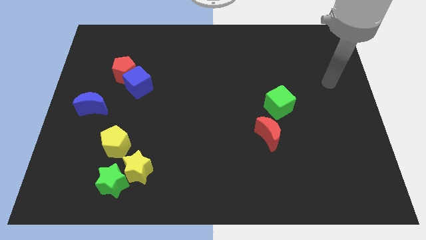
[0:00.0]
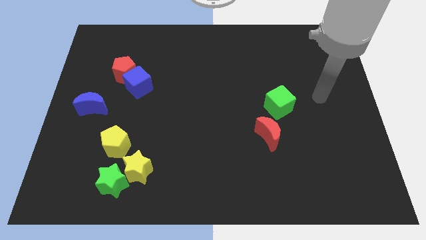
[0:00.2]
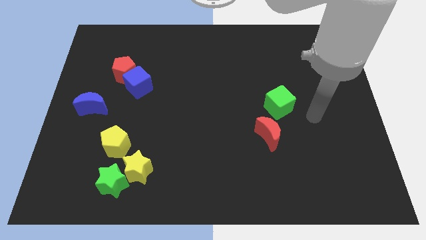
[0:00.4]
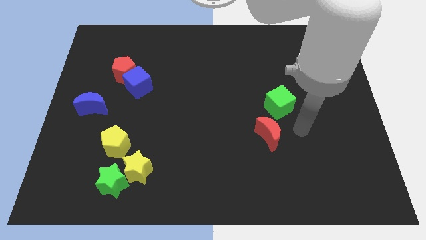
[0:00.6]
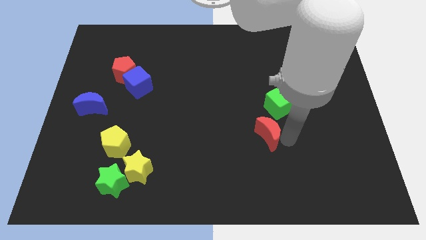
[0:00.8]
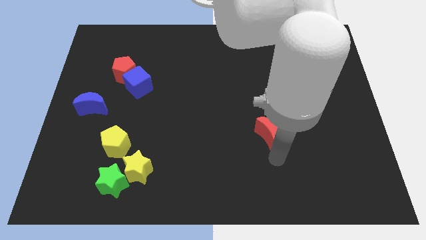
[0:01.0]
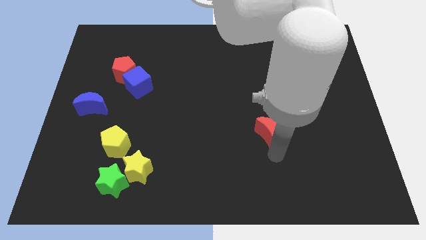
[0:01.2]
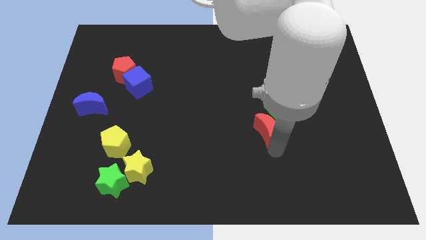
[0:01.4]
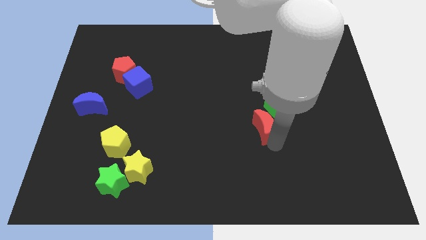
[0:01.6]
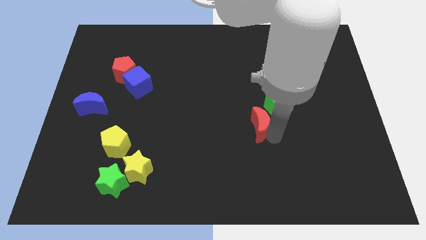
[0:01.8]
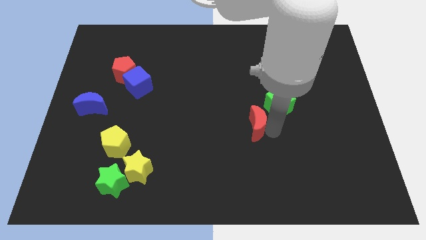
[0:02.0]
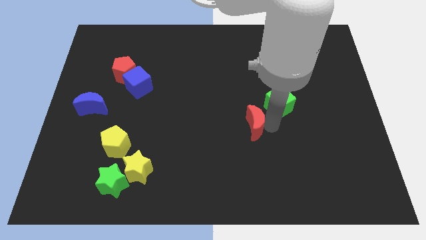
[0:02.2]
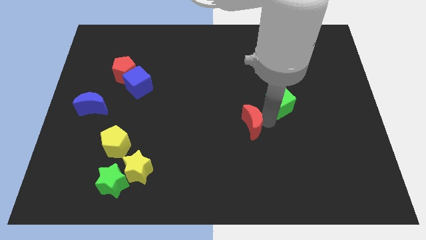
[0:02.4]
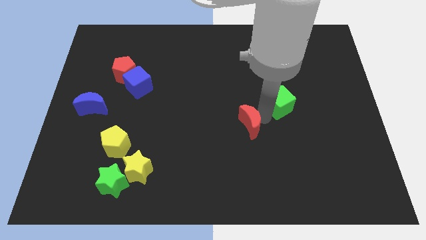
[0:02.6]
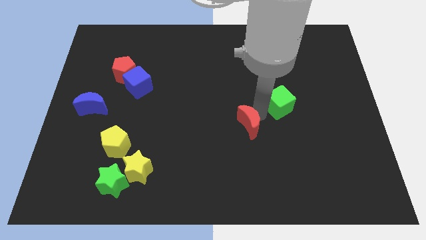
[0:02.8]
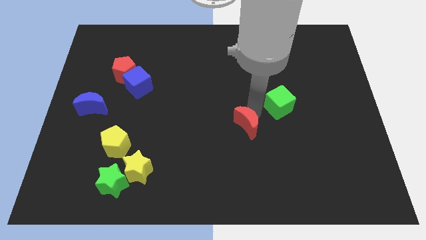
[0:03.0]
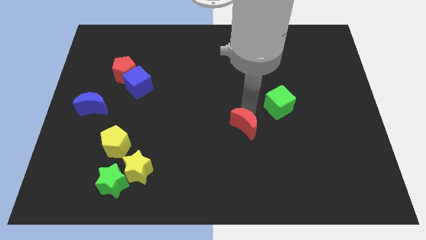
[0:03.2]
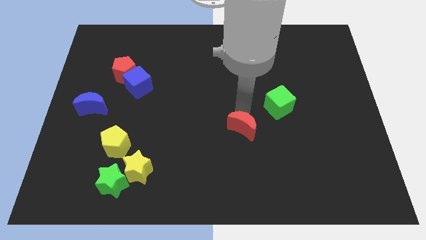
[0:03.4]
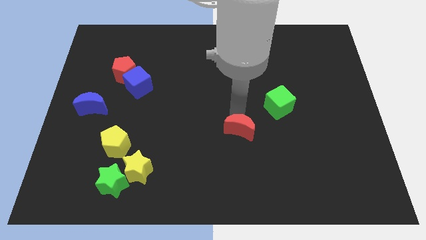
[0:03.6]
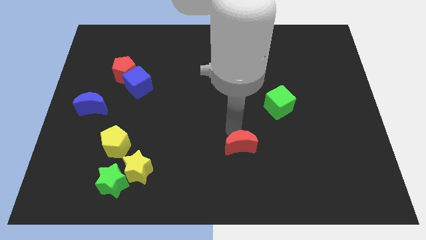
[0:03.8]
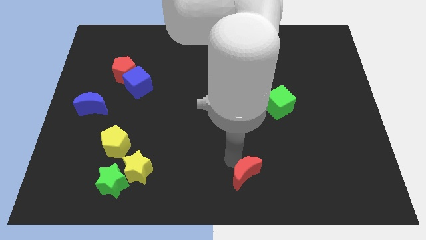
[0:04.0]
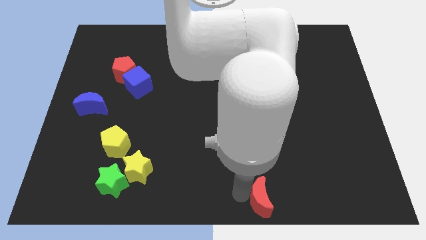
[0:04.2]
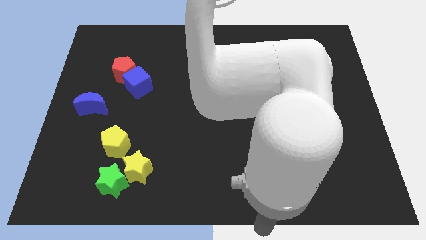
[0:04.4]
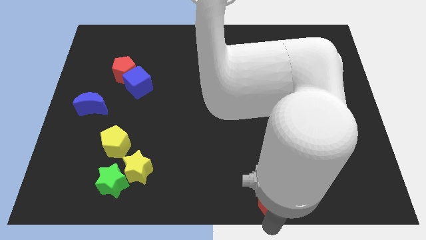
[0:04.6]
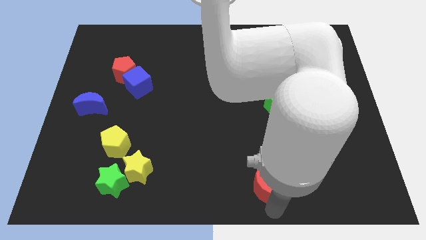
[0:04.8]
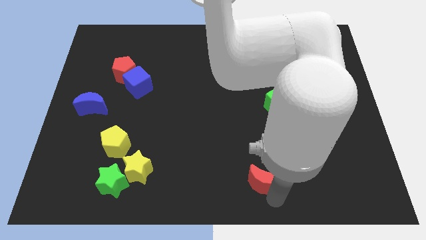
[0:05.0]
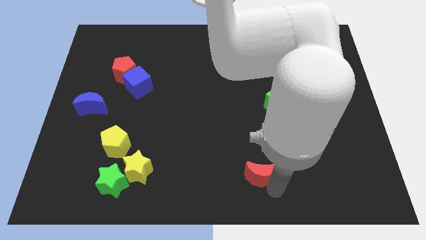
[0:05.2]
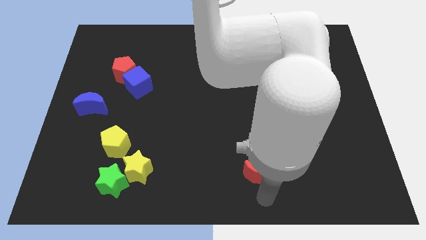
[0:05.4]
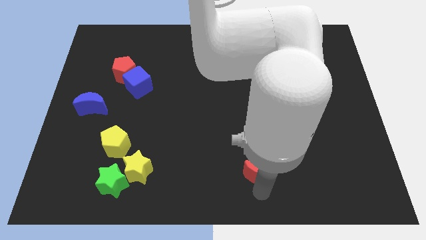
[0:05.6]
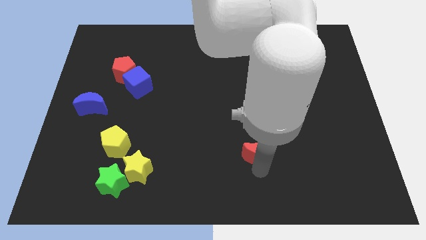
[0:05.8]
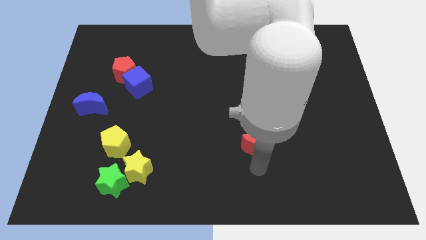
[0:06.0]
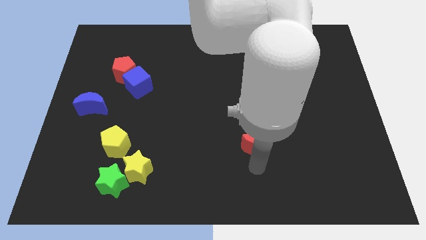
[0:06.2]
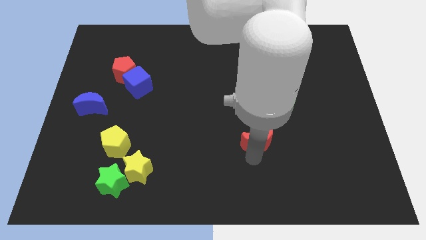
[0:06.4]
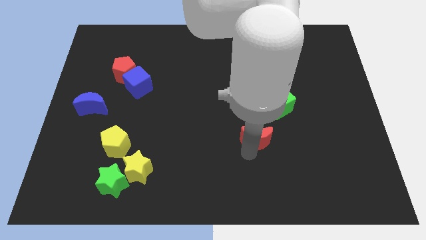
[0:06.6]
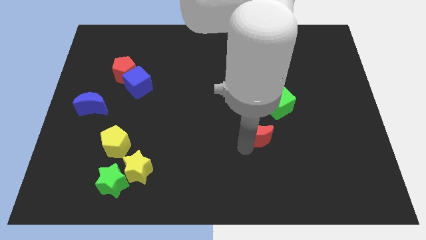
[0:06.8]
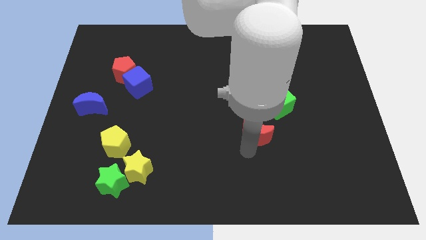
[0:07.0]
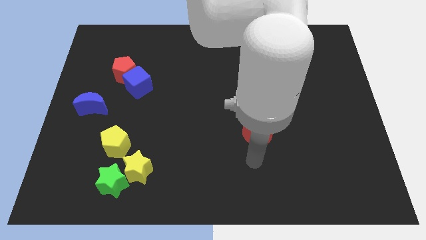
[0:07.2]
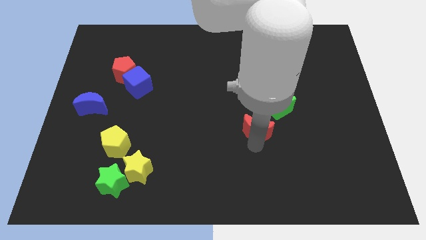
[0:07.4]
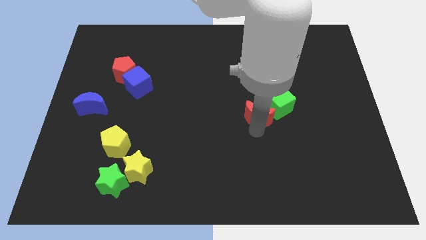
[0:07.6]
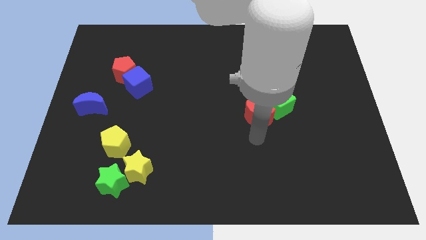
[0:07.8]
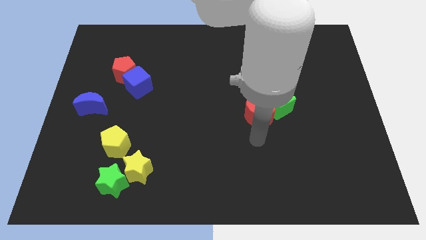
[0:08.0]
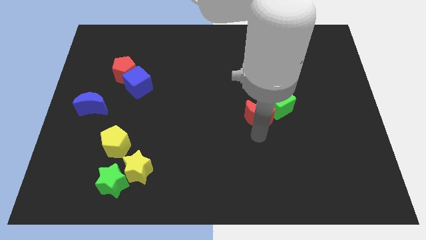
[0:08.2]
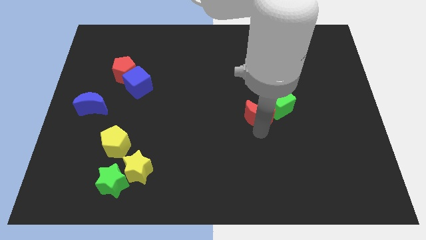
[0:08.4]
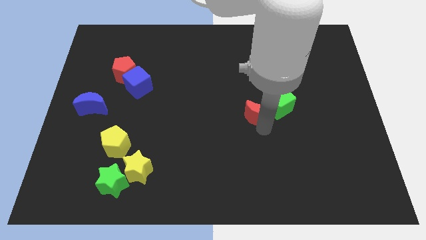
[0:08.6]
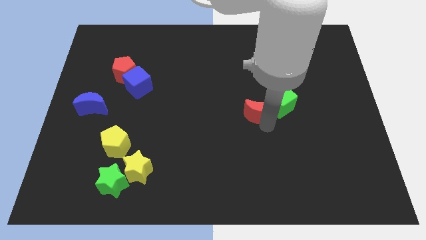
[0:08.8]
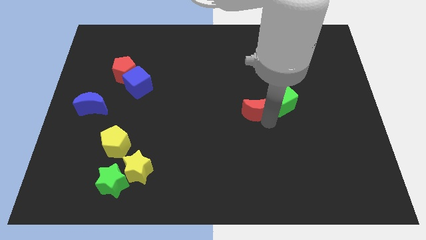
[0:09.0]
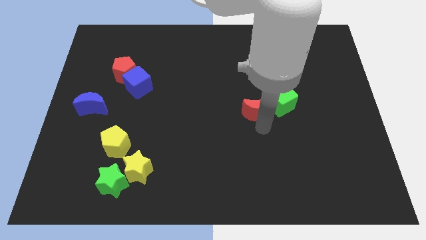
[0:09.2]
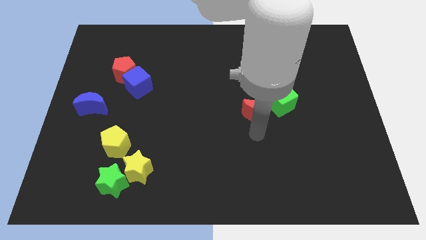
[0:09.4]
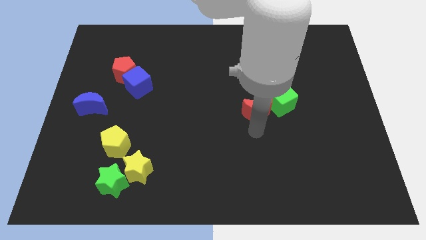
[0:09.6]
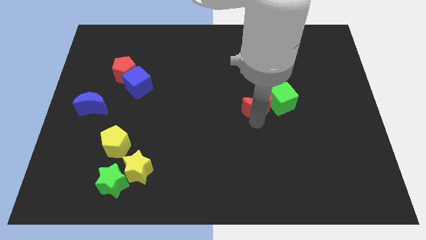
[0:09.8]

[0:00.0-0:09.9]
move the red moon upwards a bit

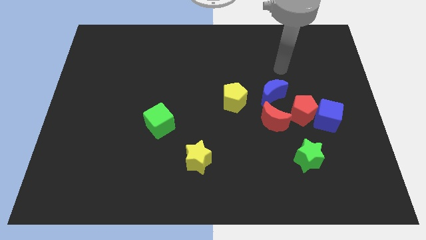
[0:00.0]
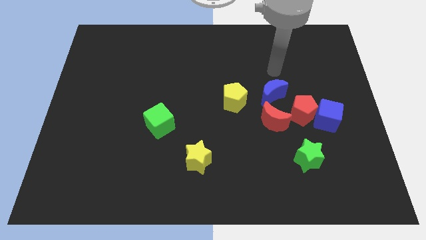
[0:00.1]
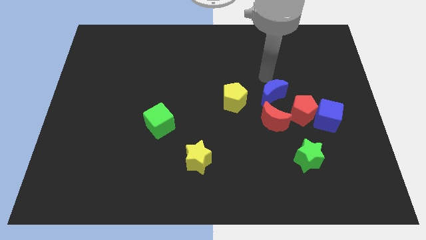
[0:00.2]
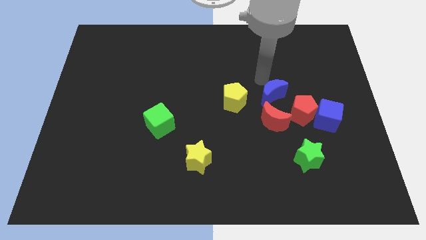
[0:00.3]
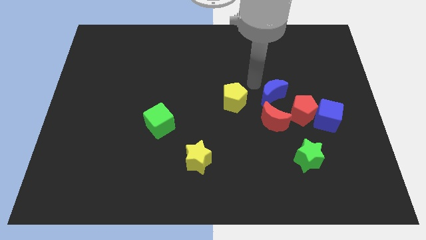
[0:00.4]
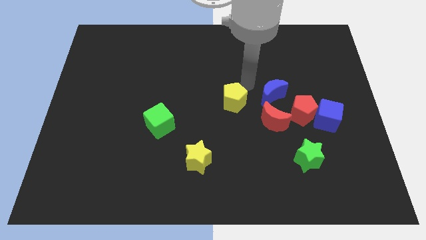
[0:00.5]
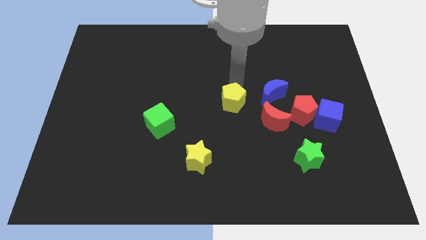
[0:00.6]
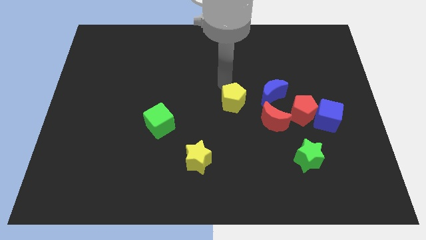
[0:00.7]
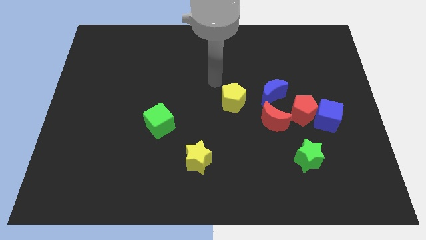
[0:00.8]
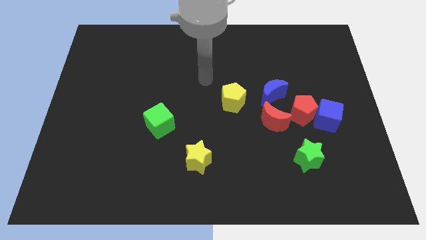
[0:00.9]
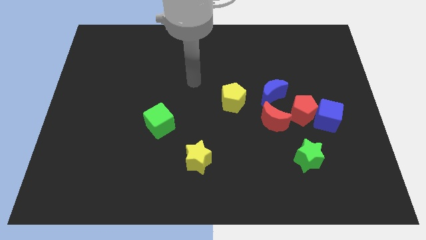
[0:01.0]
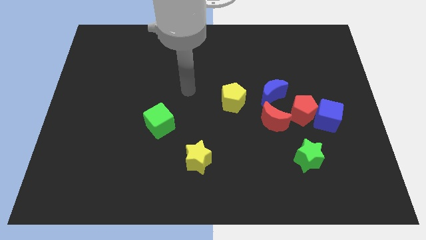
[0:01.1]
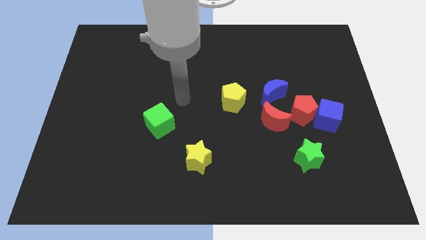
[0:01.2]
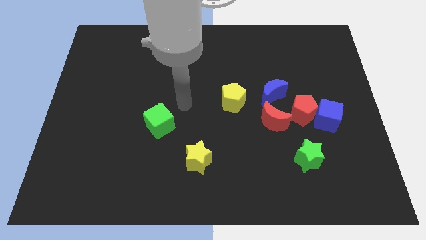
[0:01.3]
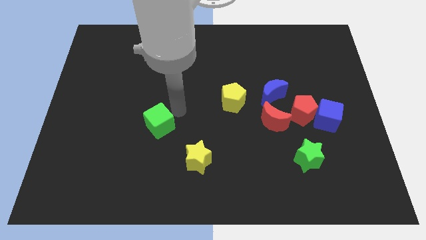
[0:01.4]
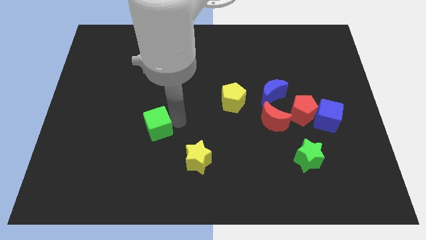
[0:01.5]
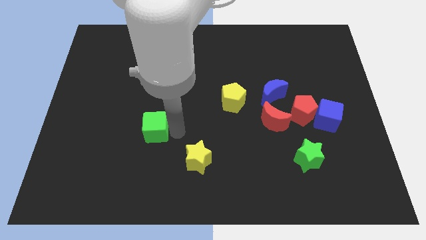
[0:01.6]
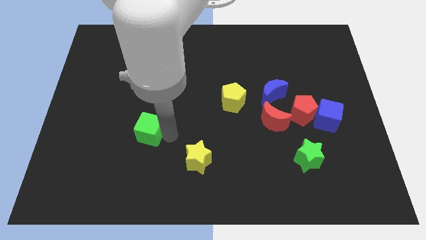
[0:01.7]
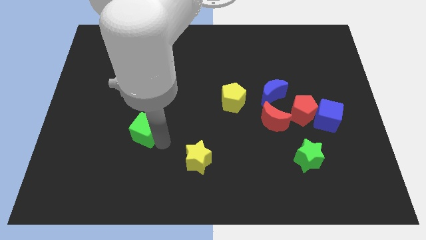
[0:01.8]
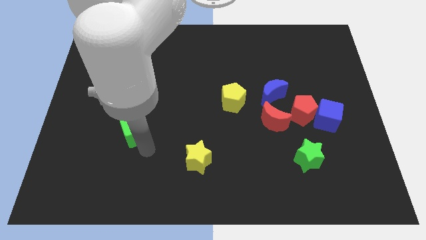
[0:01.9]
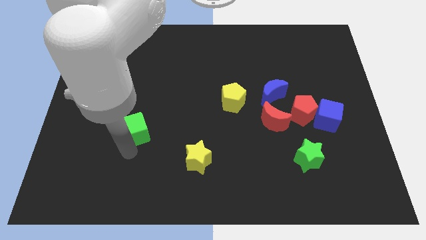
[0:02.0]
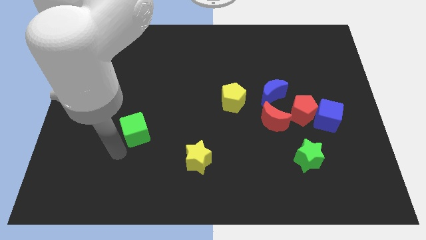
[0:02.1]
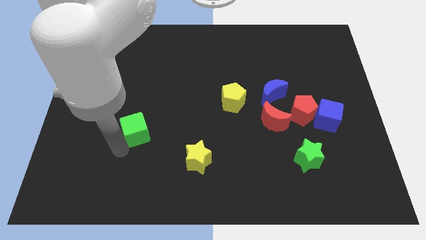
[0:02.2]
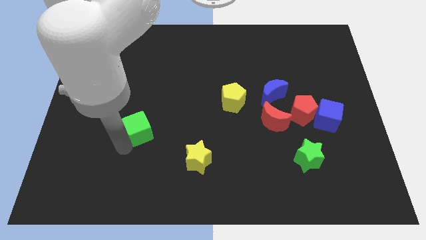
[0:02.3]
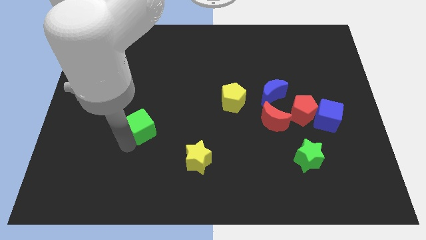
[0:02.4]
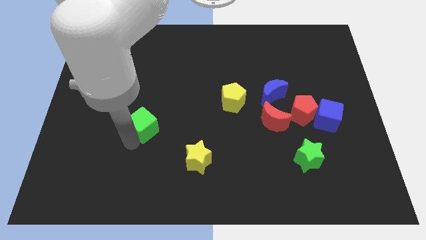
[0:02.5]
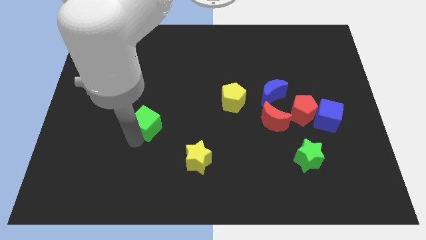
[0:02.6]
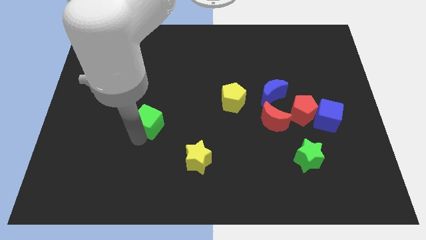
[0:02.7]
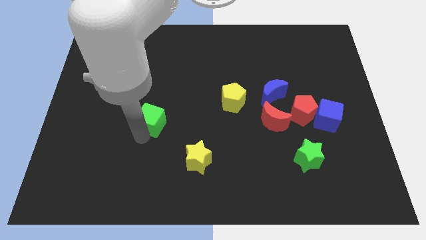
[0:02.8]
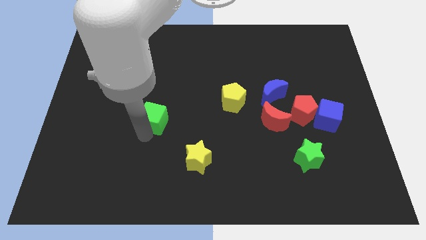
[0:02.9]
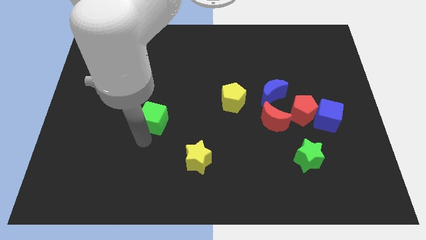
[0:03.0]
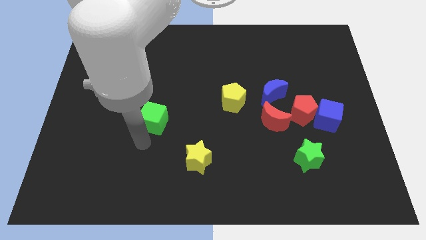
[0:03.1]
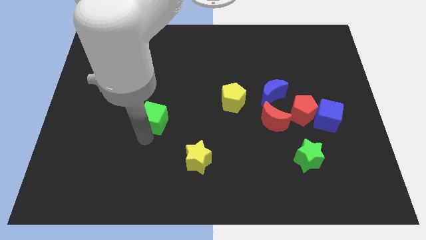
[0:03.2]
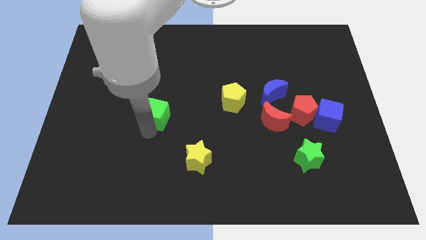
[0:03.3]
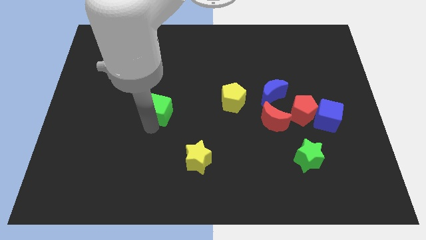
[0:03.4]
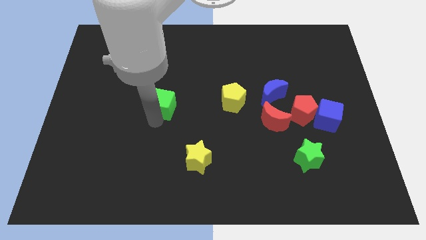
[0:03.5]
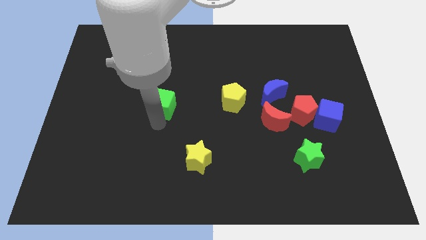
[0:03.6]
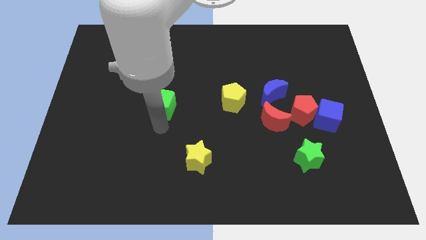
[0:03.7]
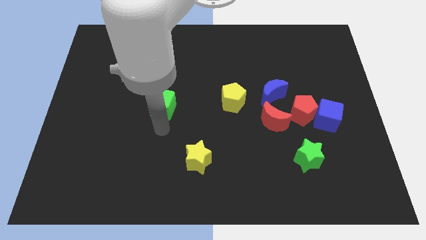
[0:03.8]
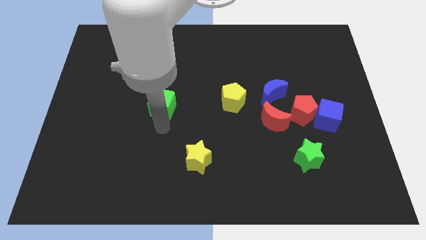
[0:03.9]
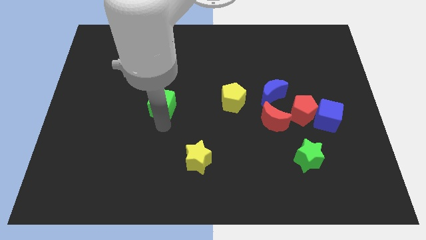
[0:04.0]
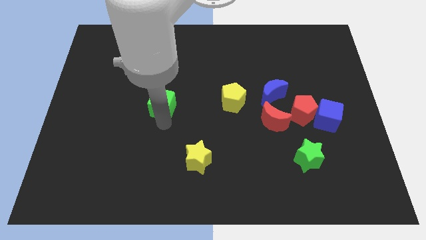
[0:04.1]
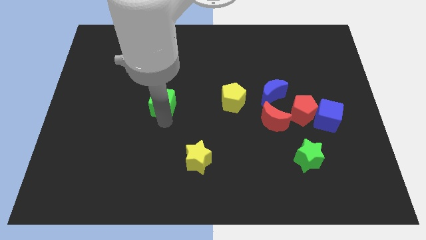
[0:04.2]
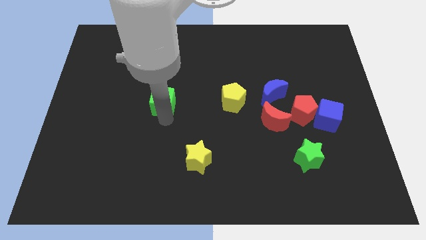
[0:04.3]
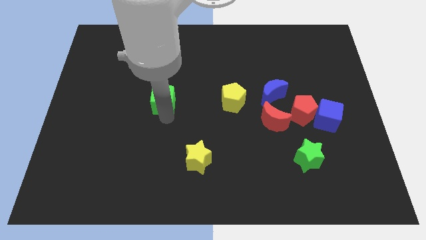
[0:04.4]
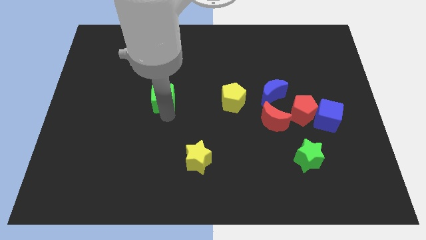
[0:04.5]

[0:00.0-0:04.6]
slightly slide the green cube up
